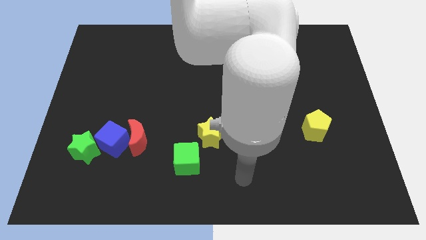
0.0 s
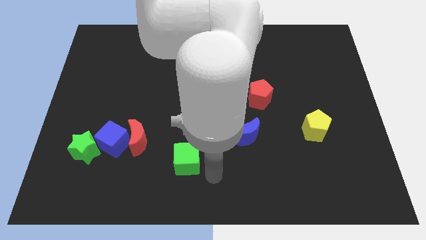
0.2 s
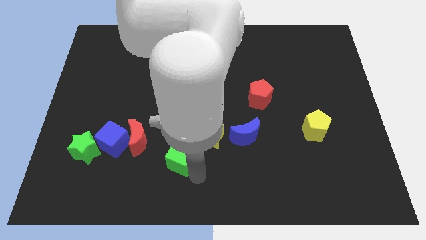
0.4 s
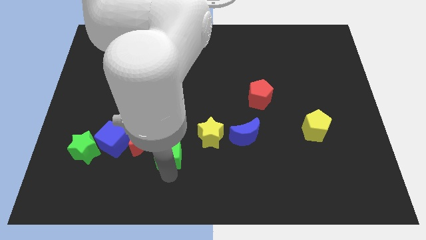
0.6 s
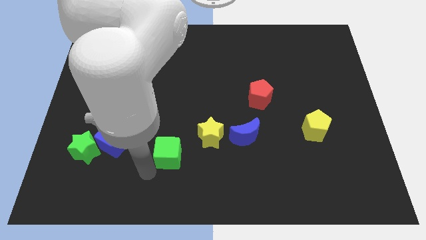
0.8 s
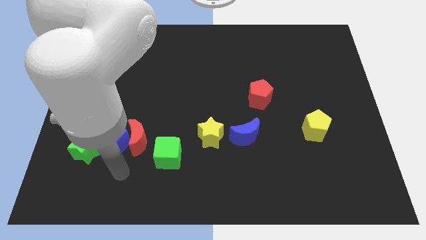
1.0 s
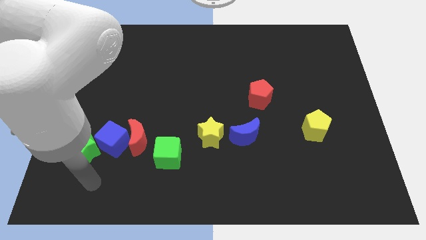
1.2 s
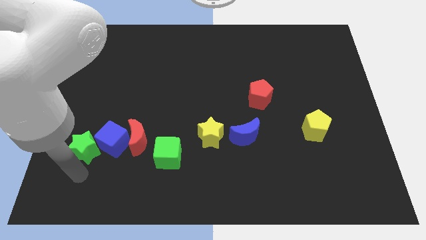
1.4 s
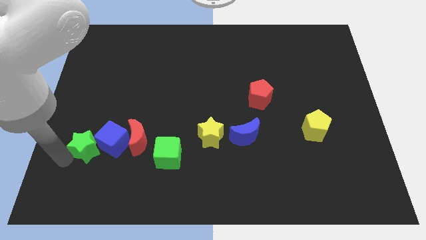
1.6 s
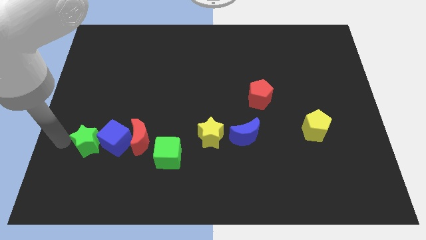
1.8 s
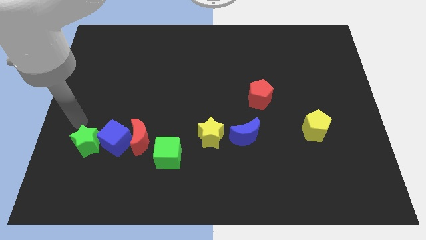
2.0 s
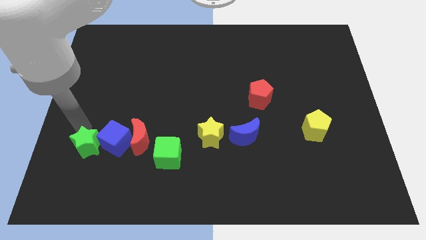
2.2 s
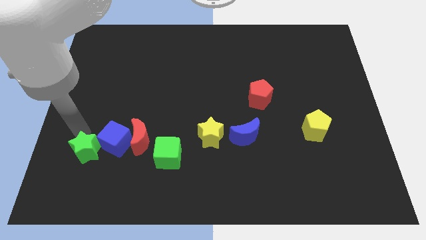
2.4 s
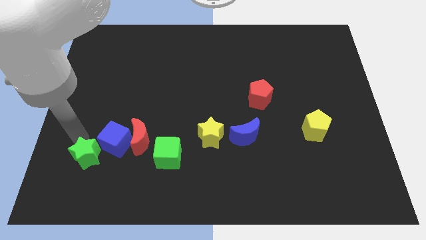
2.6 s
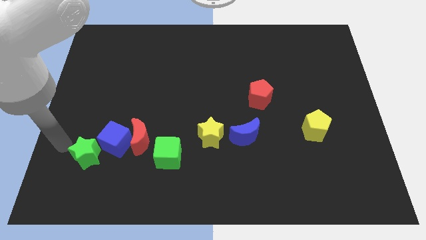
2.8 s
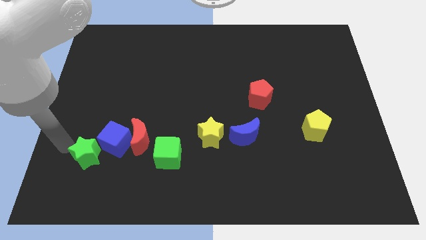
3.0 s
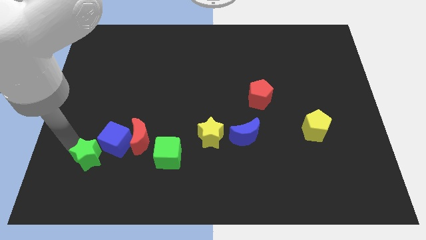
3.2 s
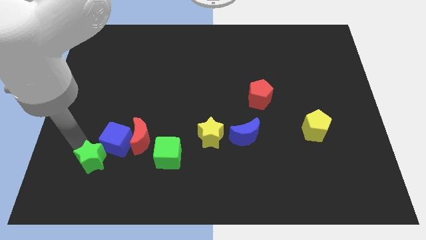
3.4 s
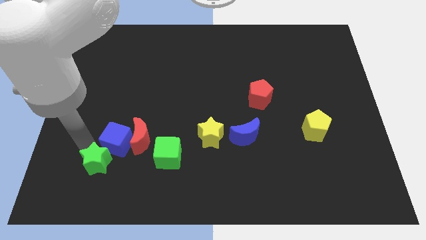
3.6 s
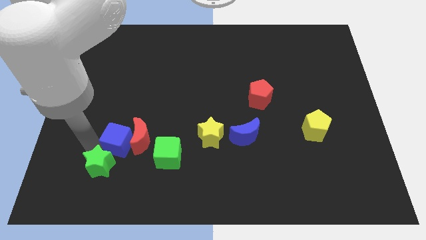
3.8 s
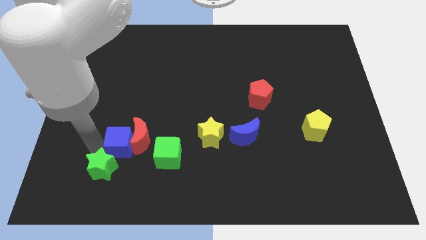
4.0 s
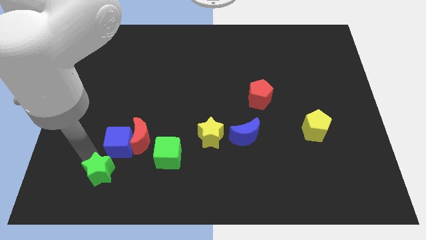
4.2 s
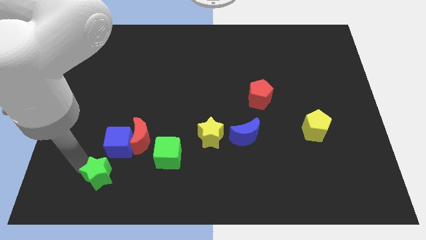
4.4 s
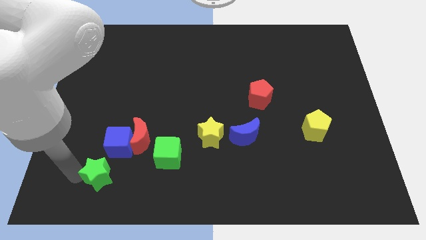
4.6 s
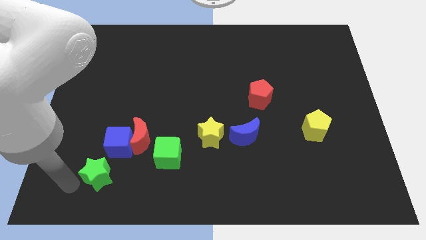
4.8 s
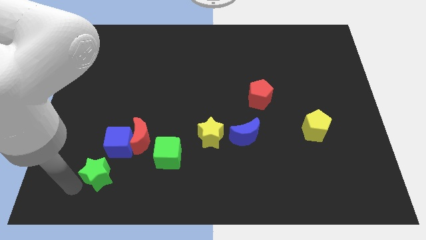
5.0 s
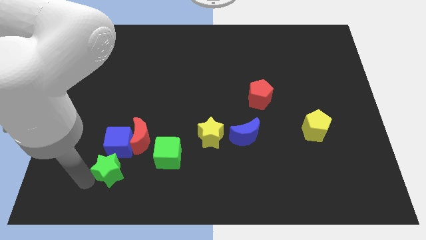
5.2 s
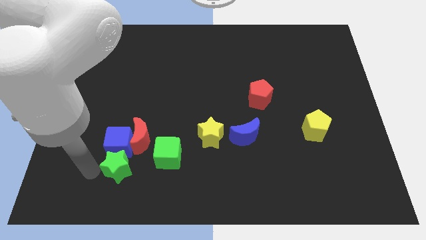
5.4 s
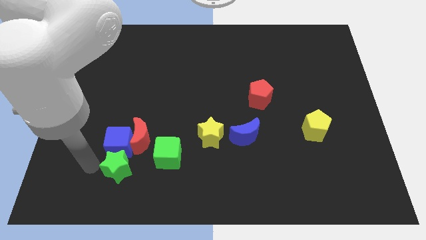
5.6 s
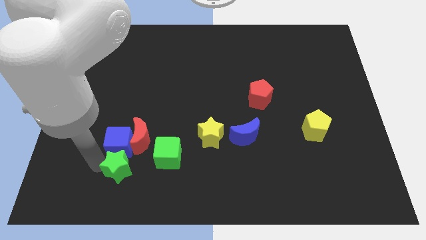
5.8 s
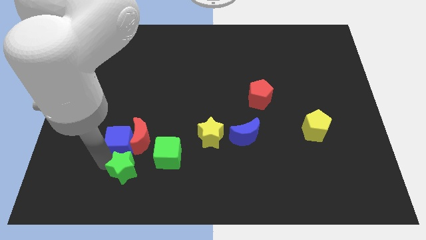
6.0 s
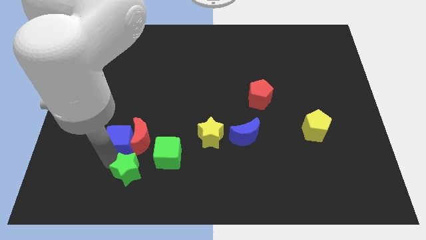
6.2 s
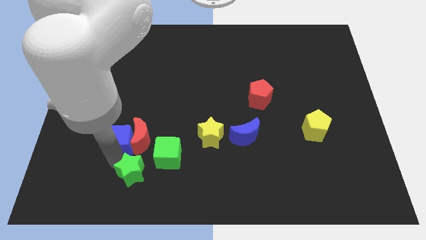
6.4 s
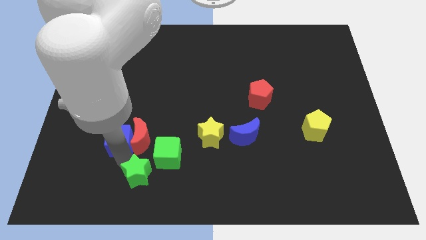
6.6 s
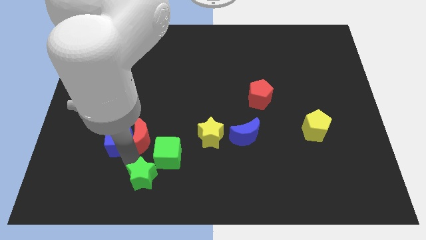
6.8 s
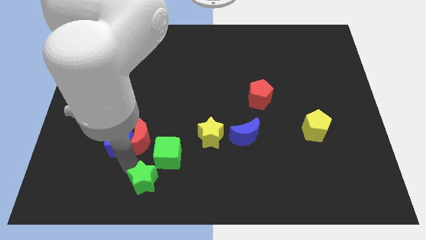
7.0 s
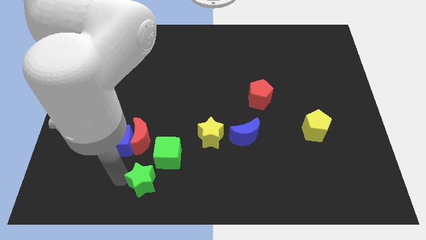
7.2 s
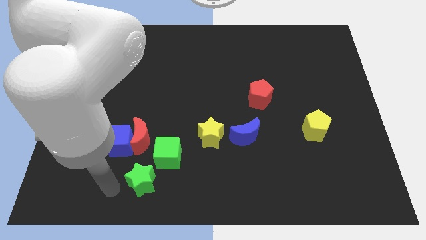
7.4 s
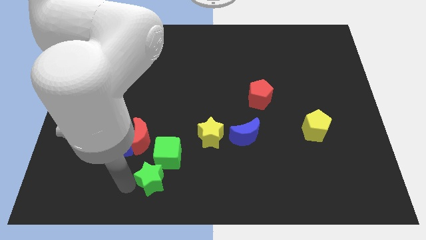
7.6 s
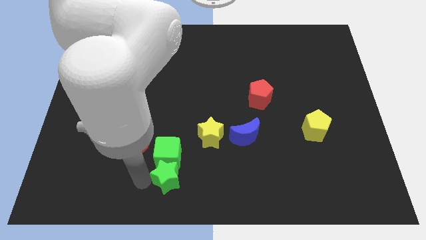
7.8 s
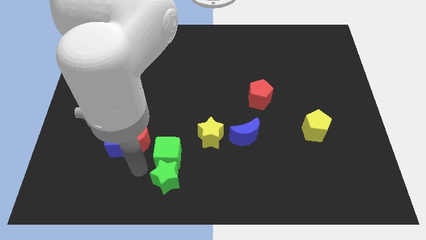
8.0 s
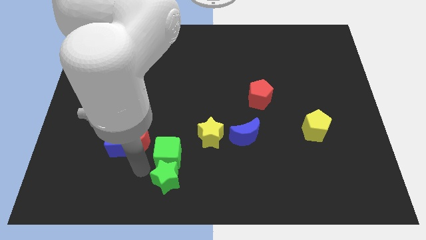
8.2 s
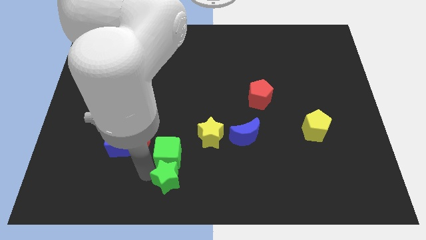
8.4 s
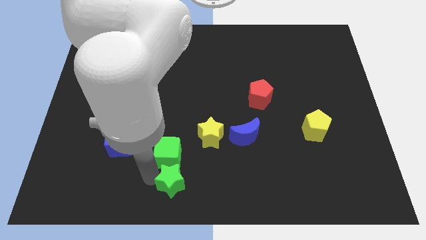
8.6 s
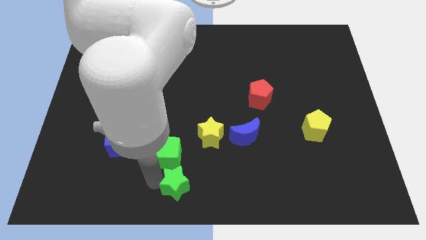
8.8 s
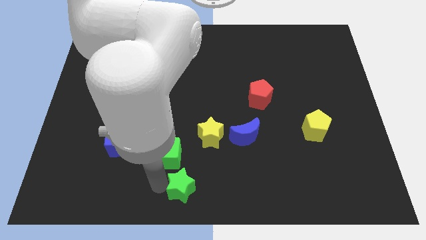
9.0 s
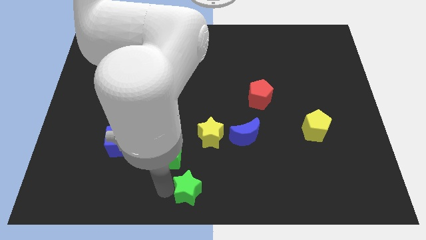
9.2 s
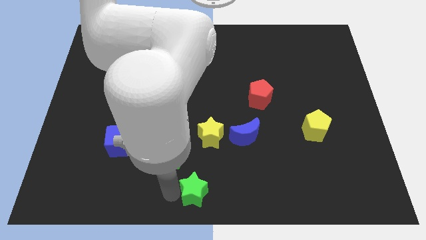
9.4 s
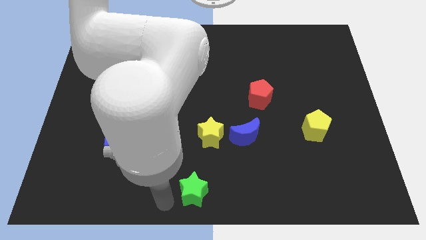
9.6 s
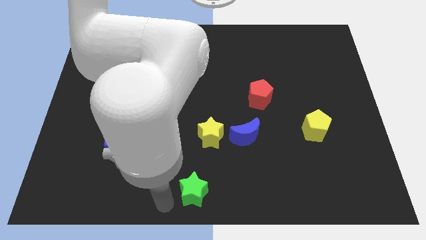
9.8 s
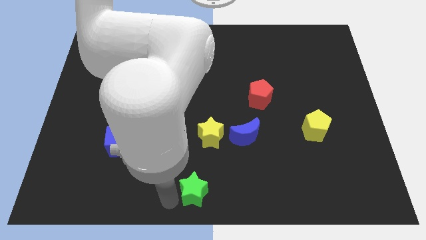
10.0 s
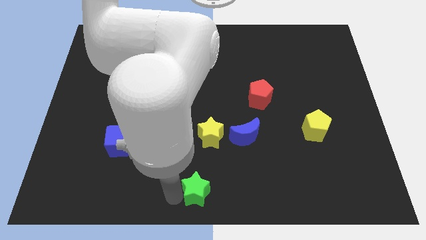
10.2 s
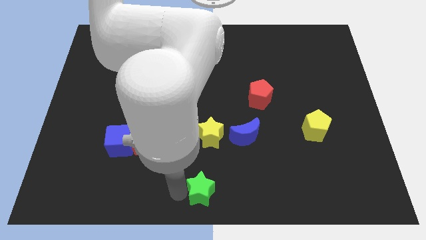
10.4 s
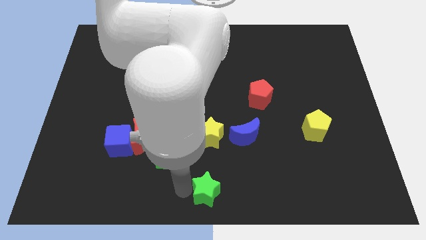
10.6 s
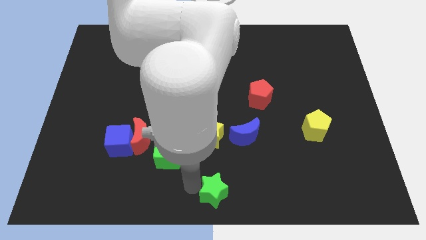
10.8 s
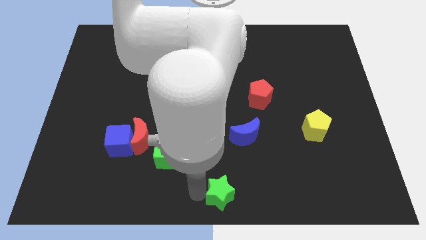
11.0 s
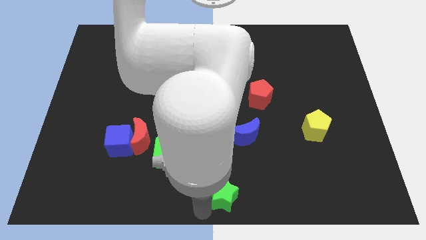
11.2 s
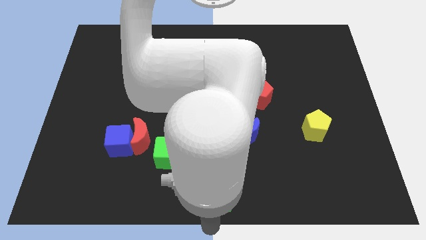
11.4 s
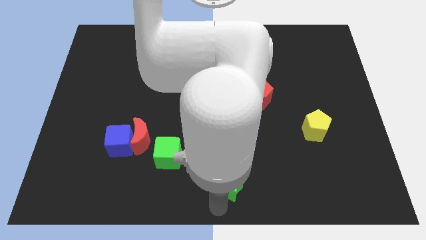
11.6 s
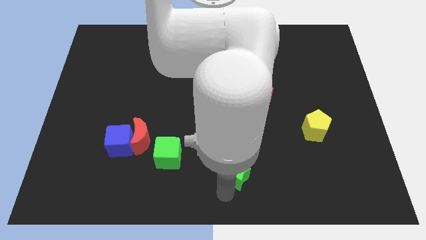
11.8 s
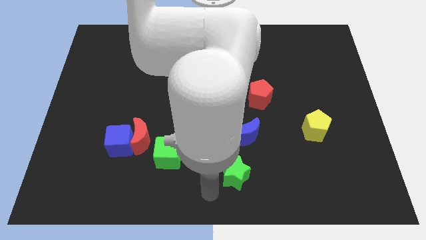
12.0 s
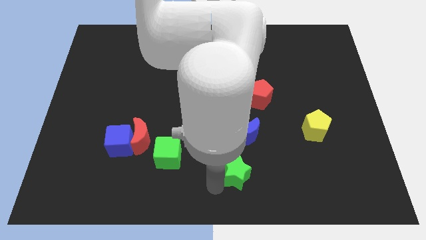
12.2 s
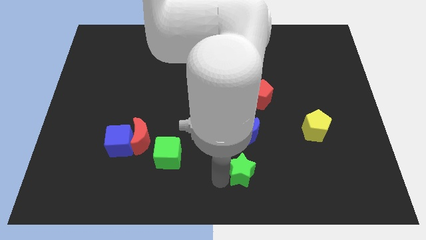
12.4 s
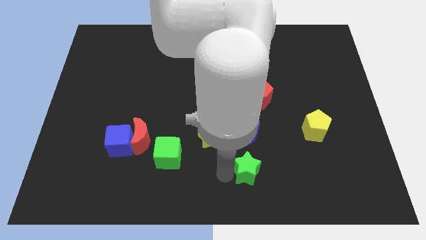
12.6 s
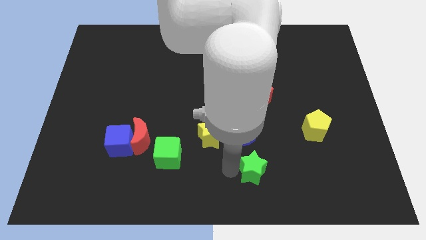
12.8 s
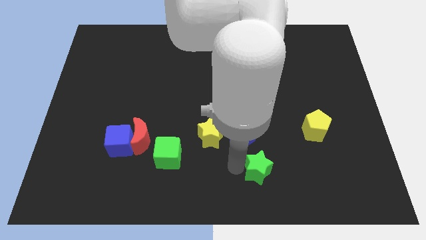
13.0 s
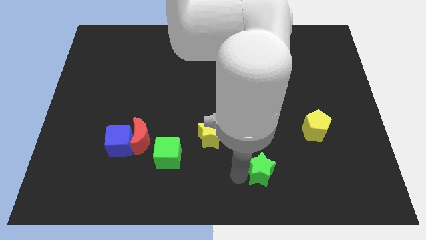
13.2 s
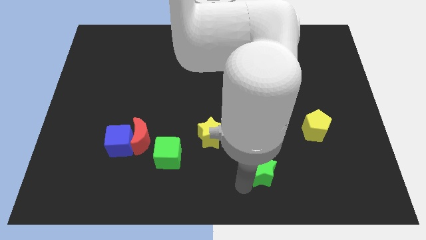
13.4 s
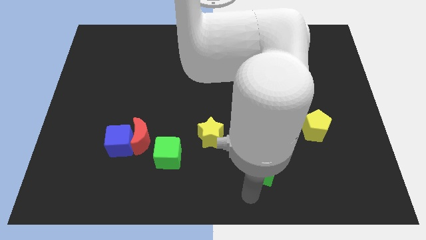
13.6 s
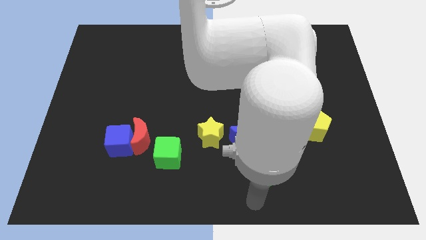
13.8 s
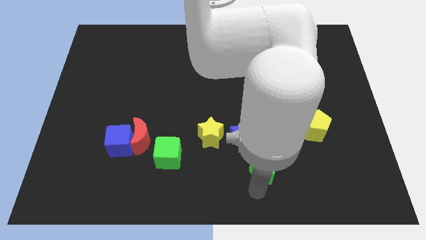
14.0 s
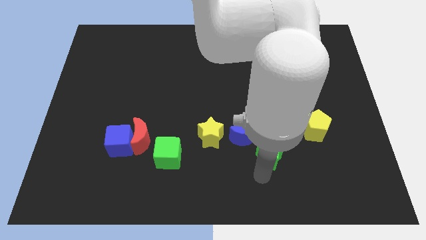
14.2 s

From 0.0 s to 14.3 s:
put the green star to the bottom of the red pentagon

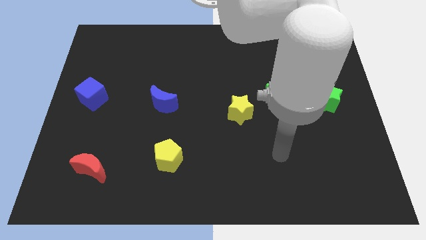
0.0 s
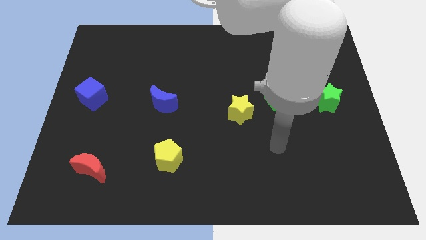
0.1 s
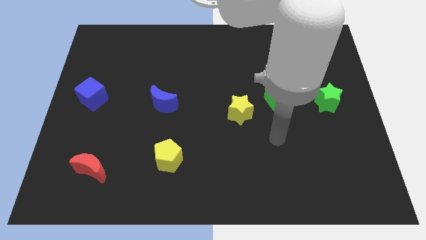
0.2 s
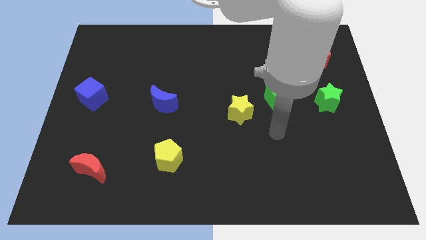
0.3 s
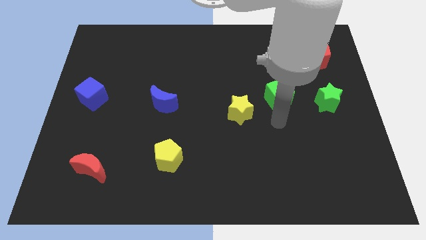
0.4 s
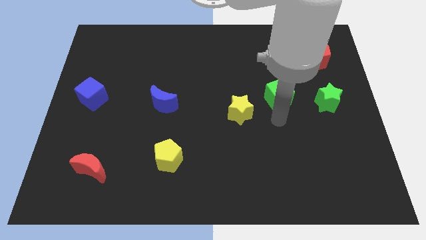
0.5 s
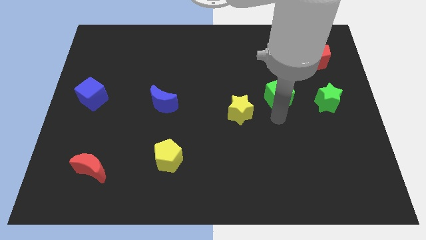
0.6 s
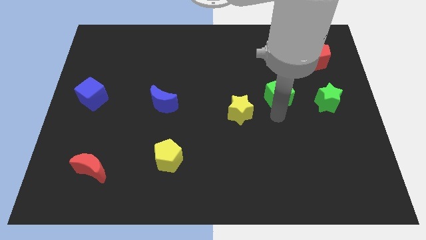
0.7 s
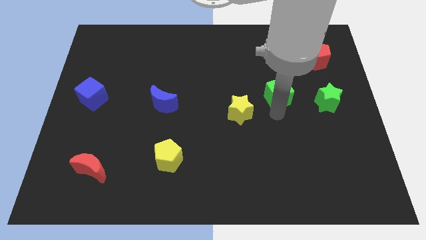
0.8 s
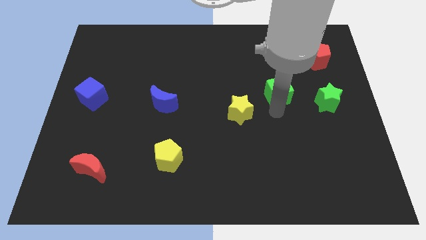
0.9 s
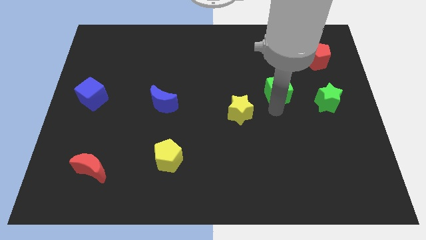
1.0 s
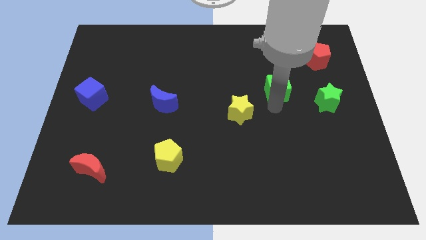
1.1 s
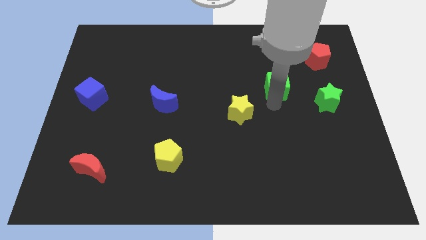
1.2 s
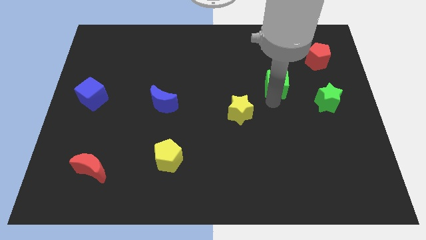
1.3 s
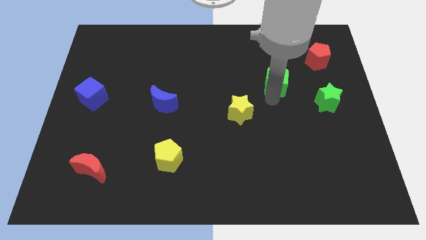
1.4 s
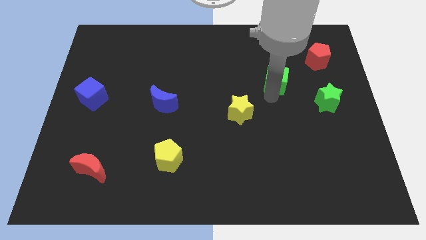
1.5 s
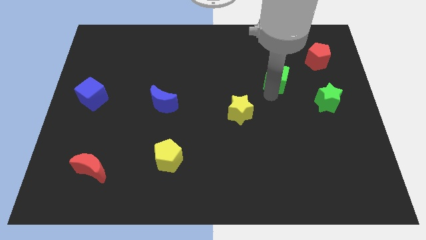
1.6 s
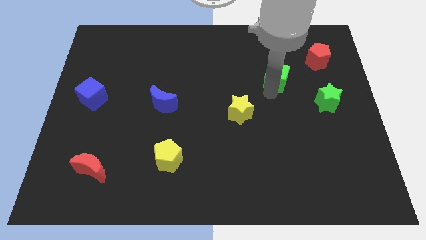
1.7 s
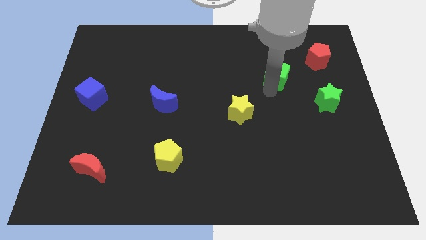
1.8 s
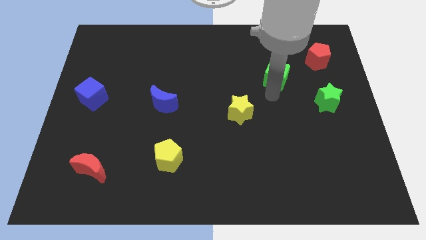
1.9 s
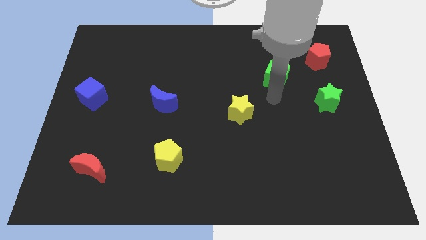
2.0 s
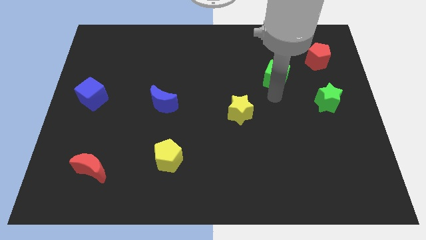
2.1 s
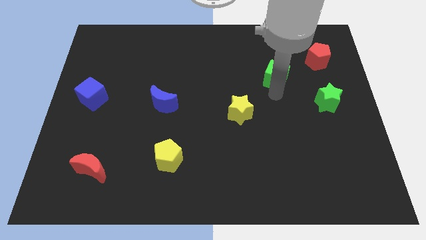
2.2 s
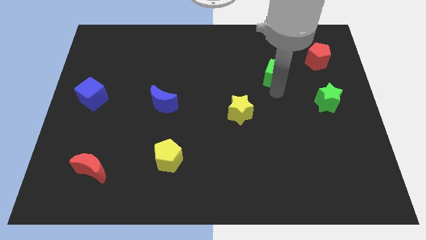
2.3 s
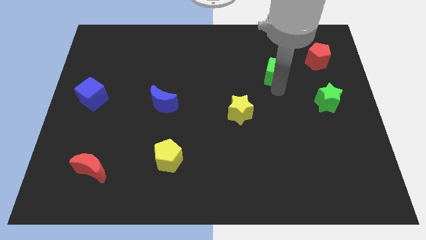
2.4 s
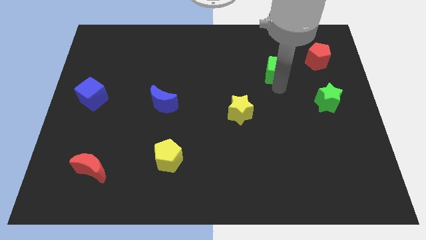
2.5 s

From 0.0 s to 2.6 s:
push the green cube to the left of the red pentagon
